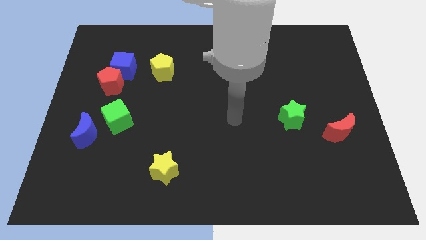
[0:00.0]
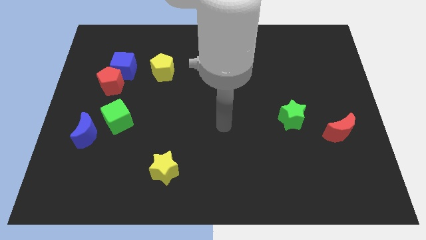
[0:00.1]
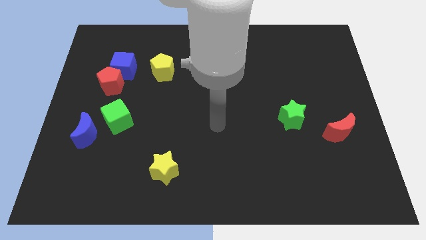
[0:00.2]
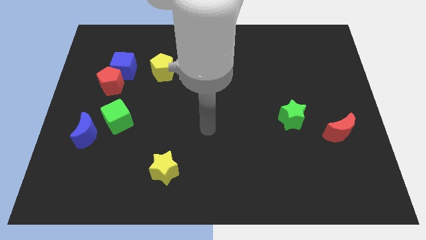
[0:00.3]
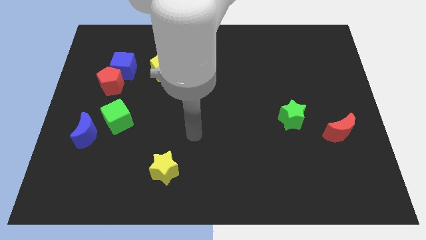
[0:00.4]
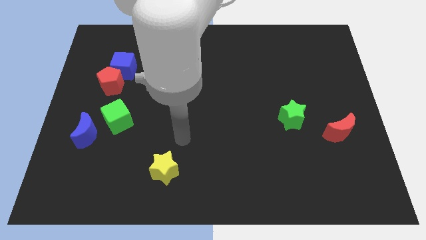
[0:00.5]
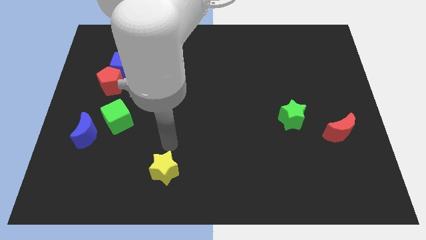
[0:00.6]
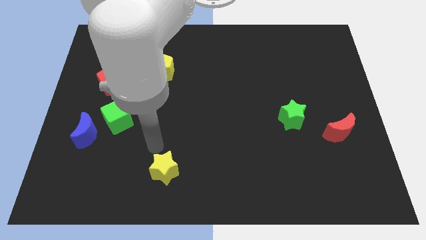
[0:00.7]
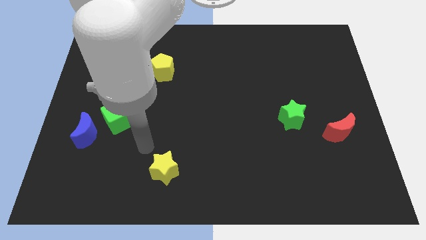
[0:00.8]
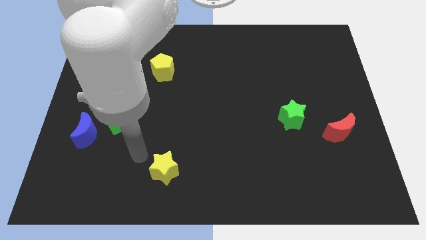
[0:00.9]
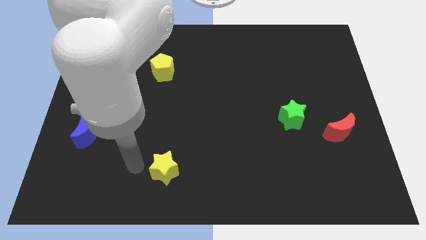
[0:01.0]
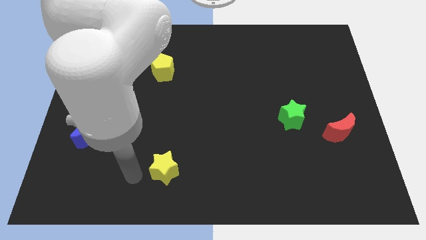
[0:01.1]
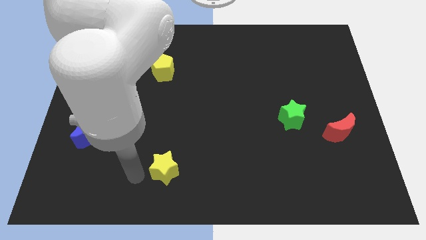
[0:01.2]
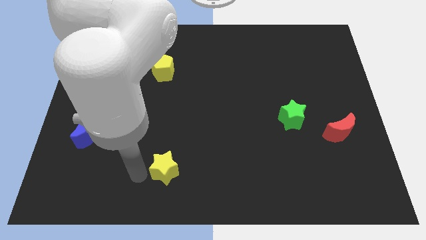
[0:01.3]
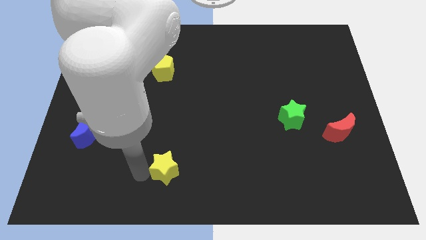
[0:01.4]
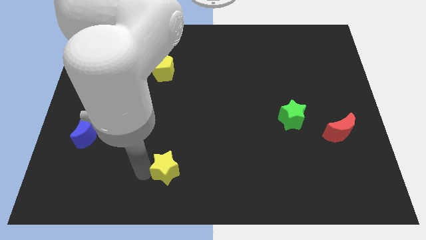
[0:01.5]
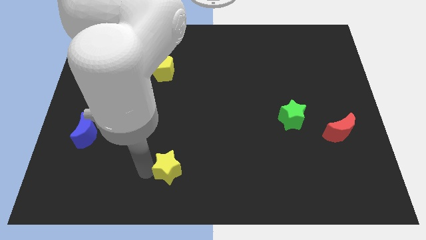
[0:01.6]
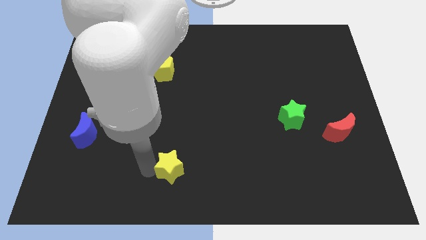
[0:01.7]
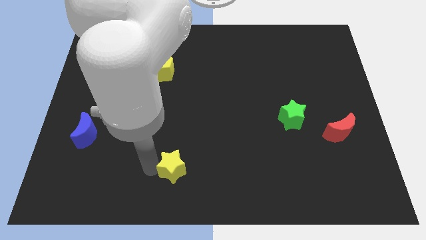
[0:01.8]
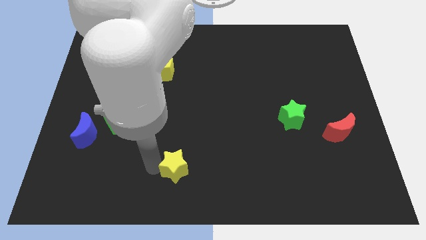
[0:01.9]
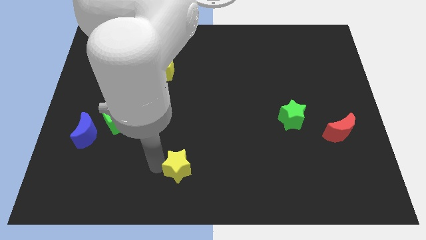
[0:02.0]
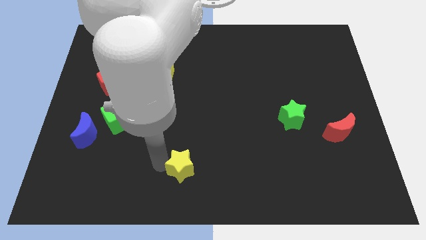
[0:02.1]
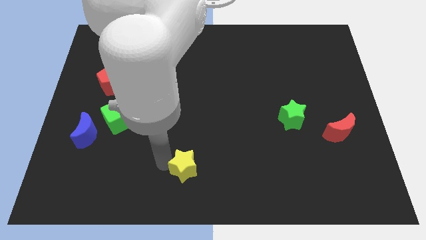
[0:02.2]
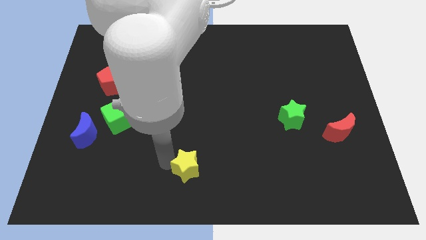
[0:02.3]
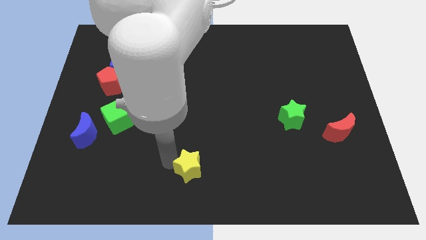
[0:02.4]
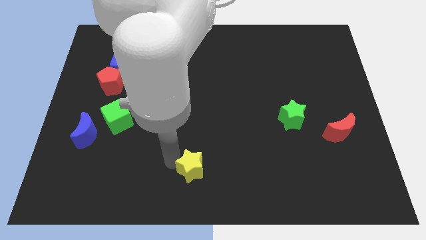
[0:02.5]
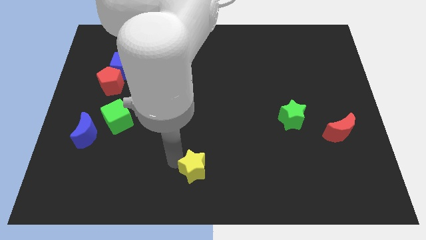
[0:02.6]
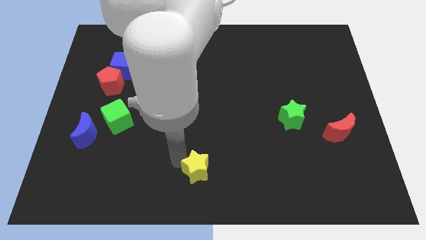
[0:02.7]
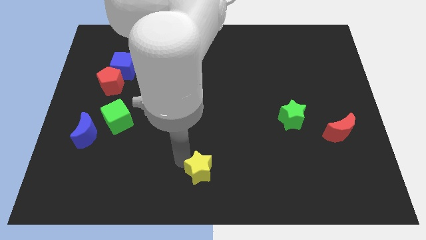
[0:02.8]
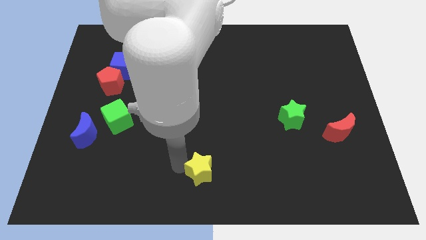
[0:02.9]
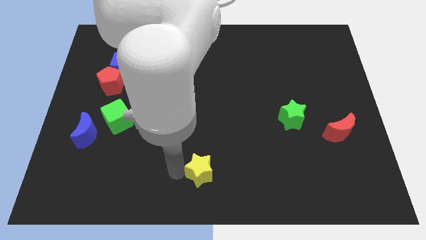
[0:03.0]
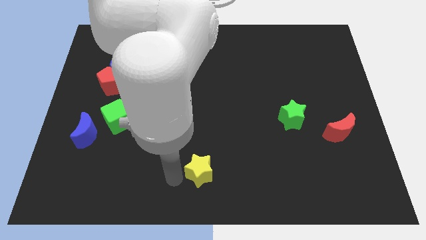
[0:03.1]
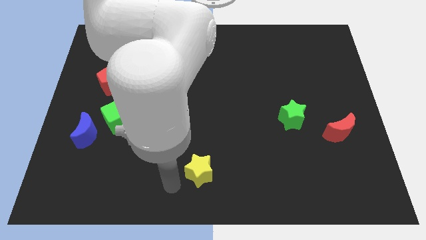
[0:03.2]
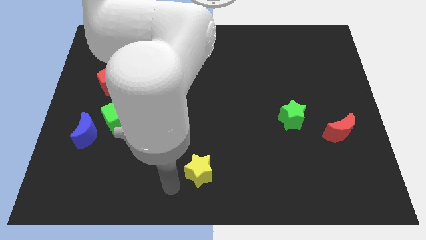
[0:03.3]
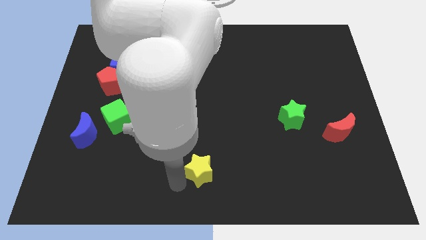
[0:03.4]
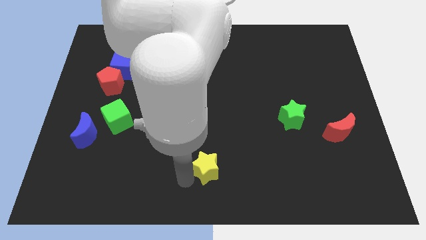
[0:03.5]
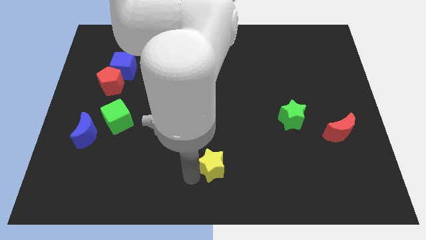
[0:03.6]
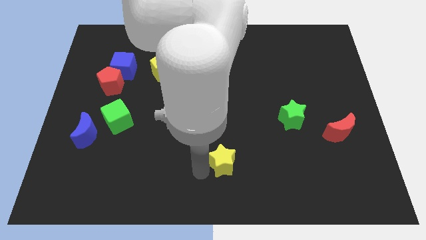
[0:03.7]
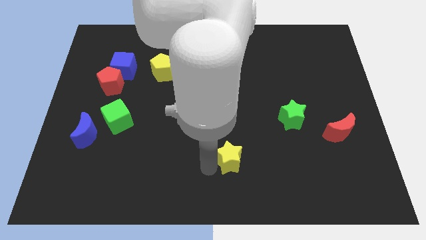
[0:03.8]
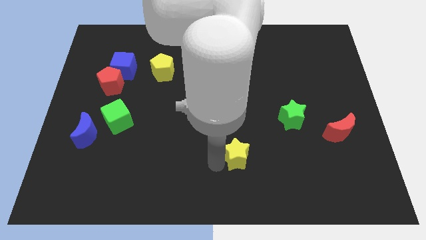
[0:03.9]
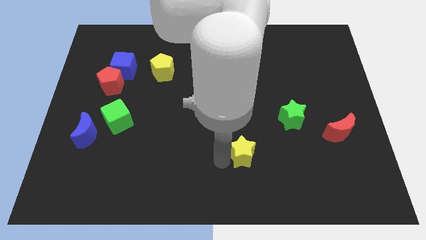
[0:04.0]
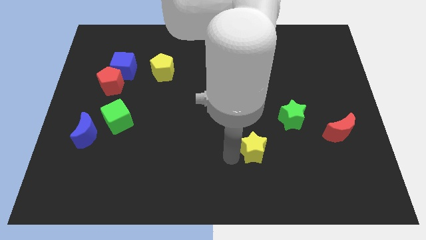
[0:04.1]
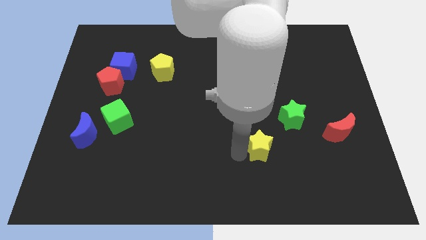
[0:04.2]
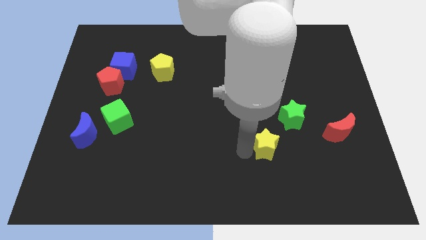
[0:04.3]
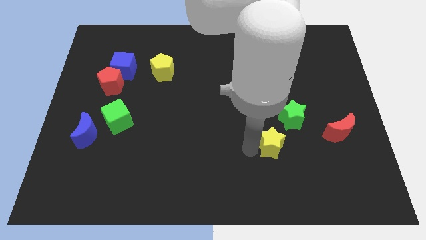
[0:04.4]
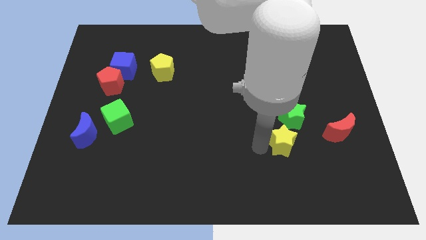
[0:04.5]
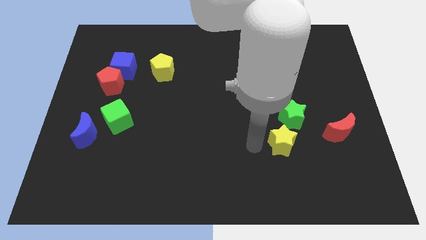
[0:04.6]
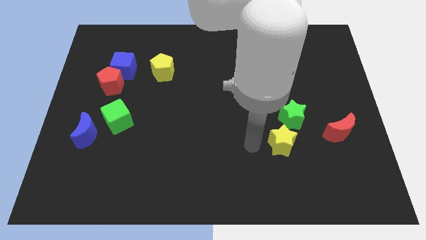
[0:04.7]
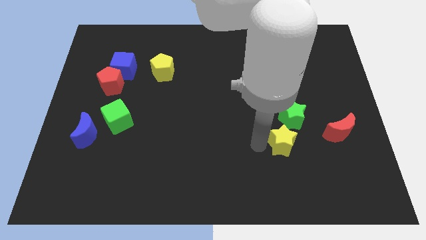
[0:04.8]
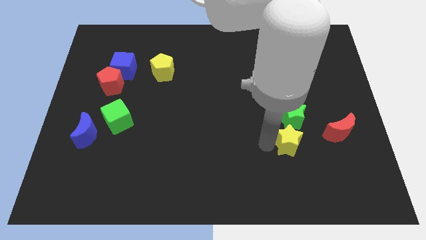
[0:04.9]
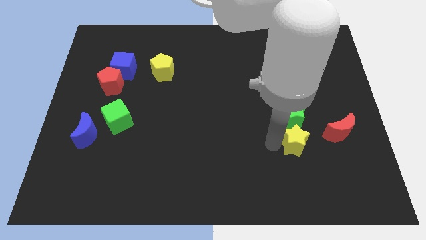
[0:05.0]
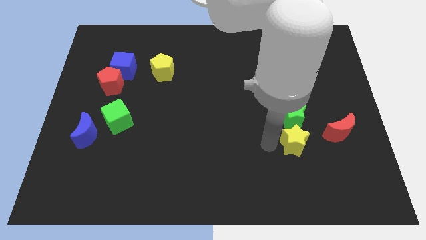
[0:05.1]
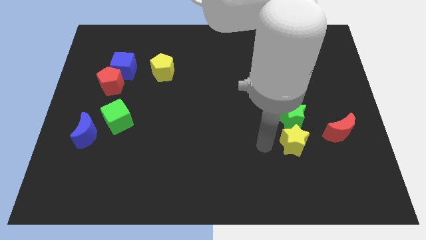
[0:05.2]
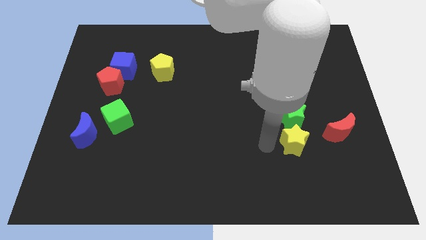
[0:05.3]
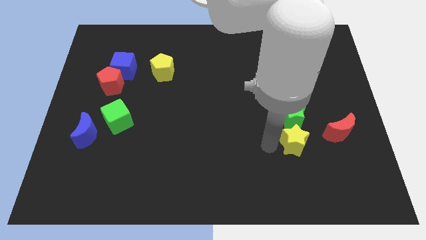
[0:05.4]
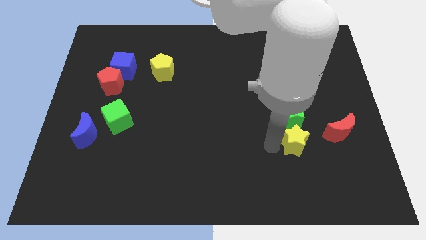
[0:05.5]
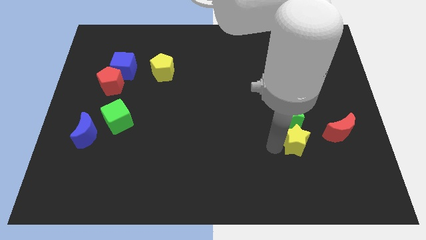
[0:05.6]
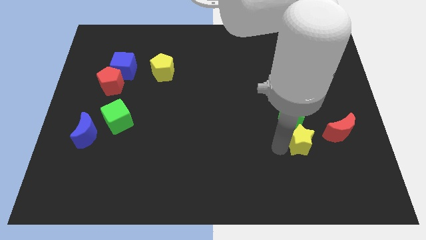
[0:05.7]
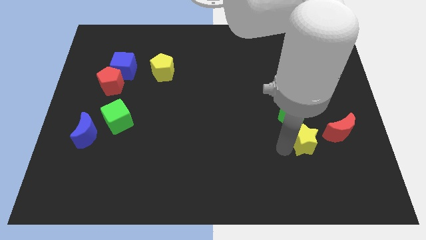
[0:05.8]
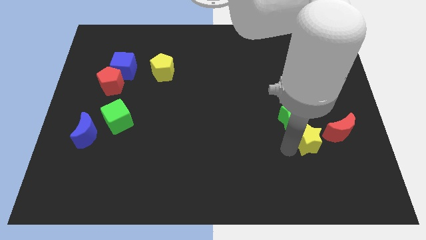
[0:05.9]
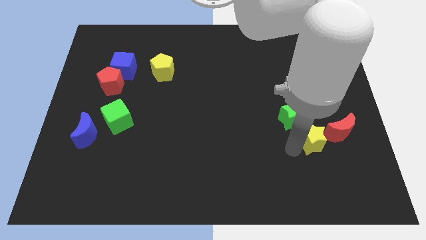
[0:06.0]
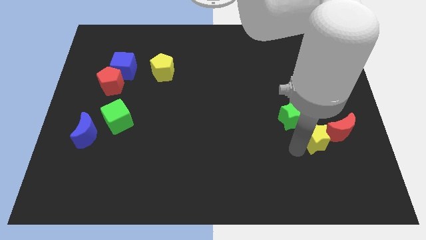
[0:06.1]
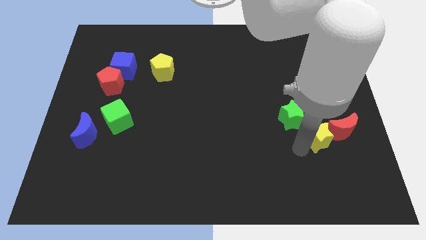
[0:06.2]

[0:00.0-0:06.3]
move the yellow star to the red moon

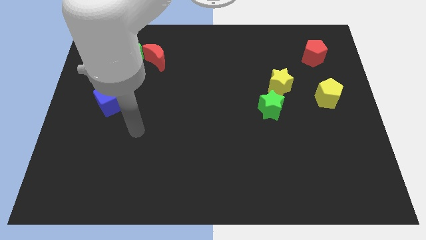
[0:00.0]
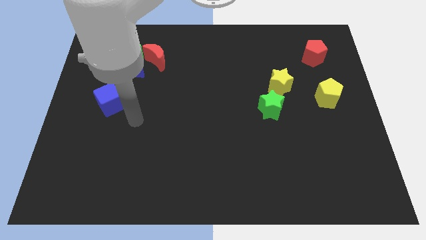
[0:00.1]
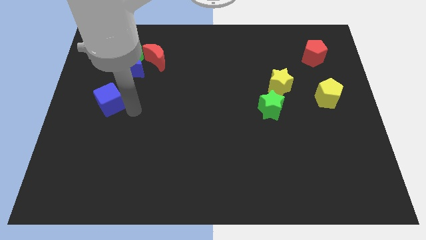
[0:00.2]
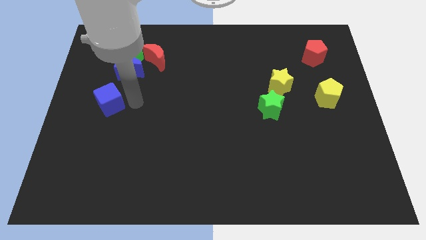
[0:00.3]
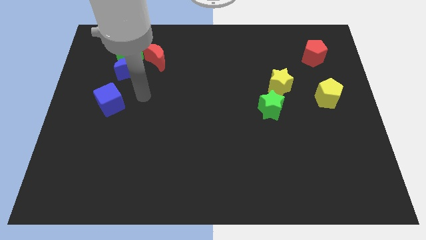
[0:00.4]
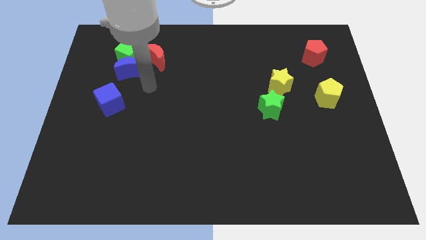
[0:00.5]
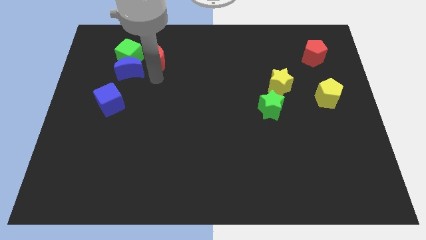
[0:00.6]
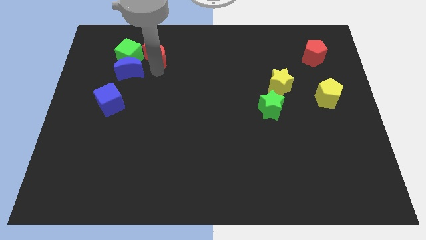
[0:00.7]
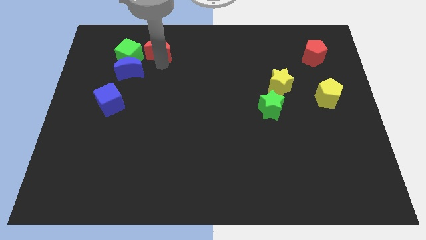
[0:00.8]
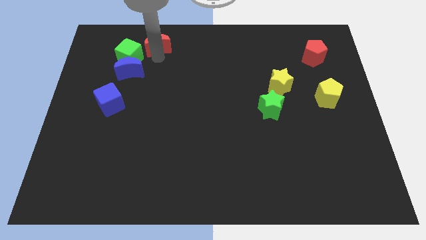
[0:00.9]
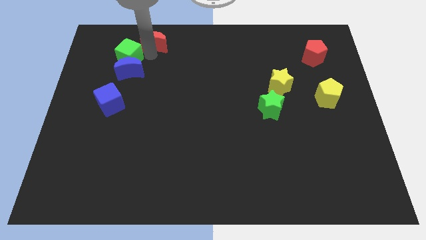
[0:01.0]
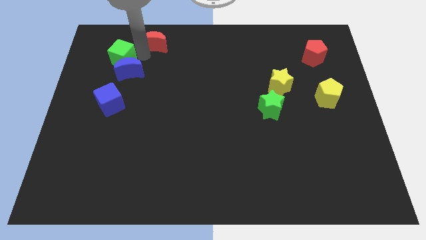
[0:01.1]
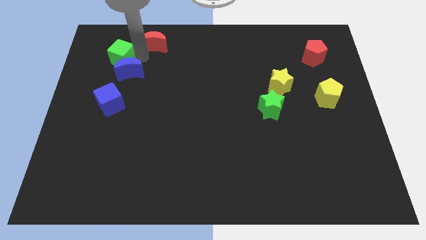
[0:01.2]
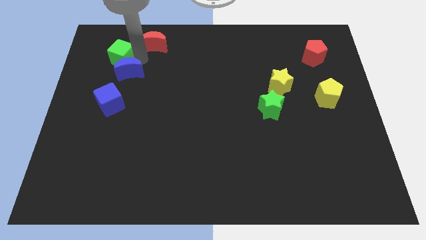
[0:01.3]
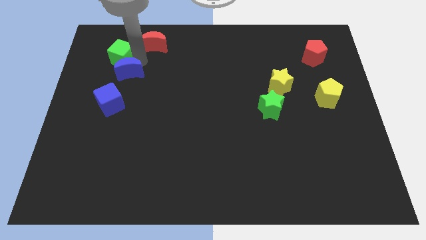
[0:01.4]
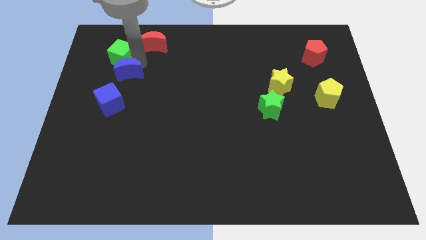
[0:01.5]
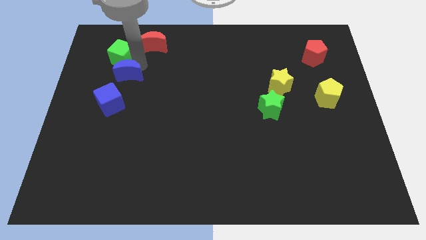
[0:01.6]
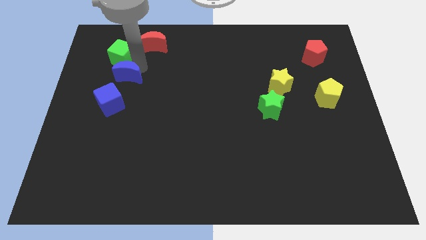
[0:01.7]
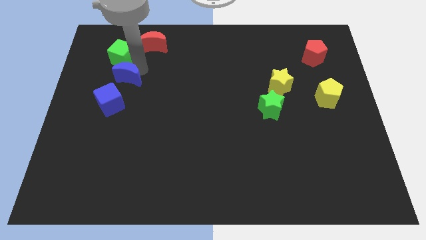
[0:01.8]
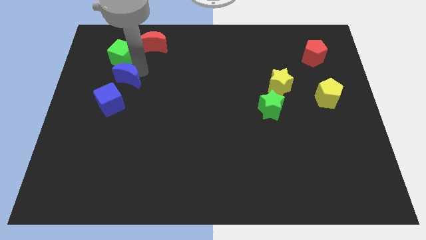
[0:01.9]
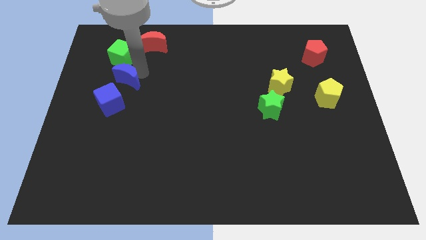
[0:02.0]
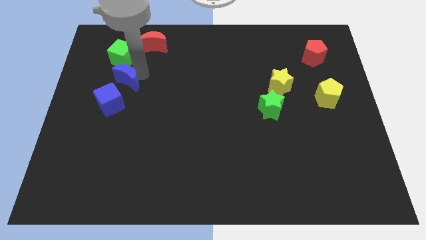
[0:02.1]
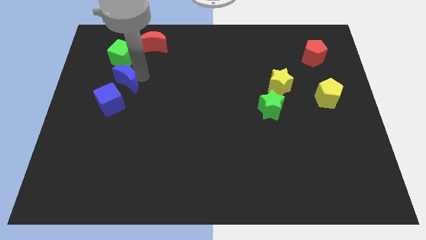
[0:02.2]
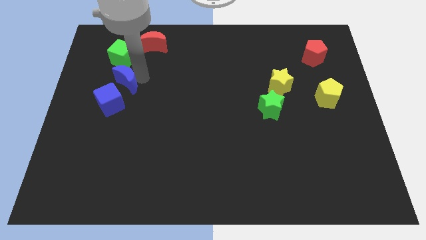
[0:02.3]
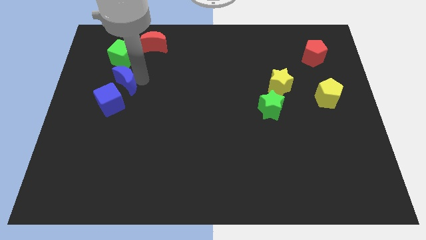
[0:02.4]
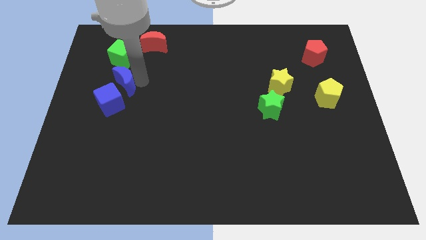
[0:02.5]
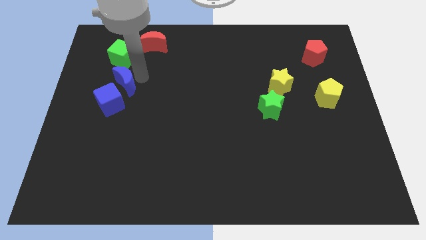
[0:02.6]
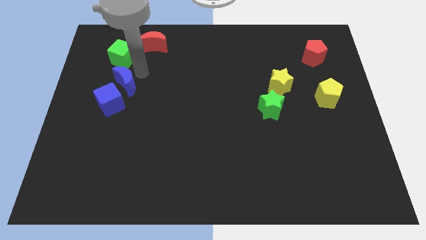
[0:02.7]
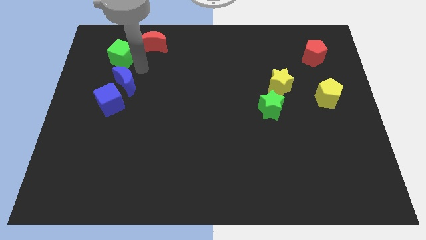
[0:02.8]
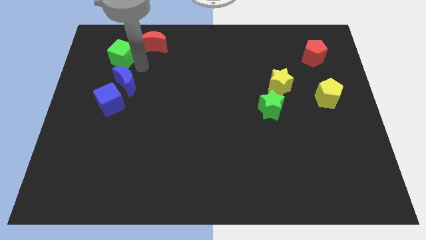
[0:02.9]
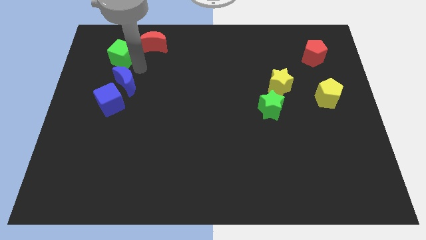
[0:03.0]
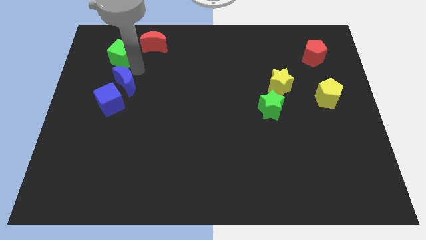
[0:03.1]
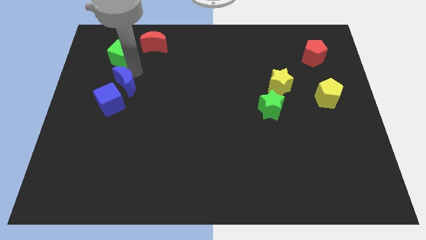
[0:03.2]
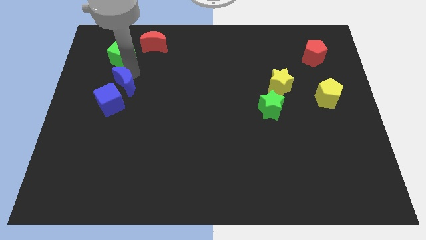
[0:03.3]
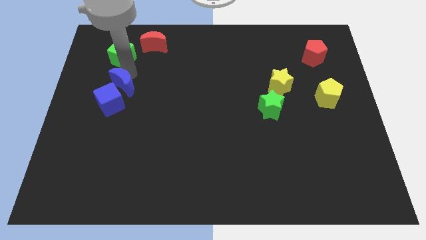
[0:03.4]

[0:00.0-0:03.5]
move the blue moon towards the blue cube
